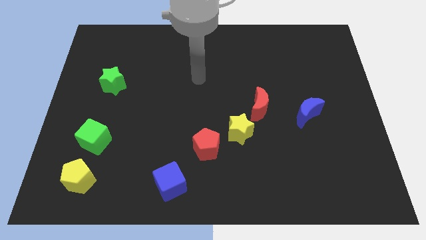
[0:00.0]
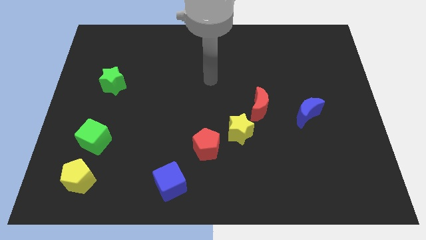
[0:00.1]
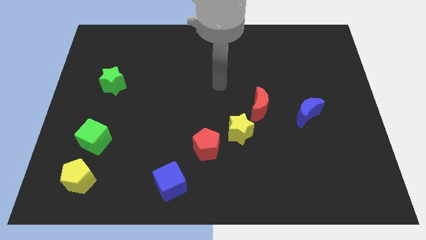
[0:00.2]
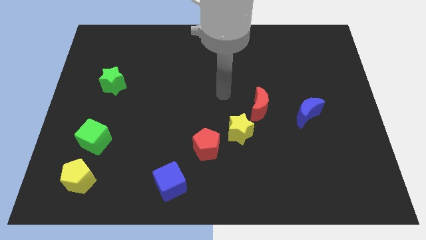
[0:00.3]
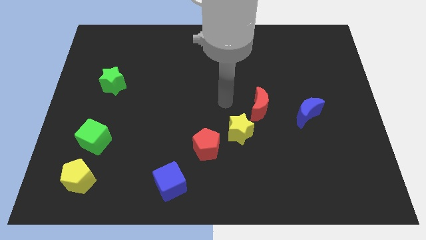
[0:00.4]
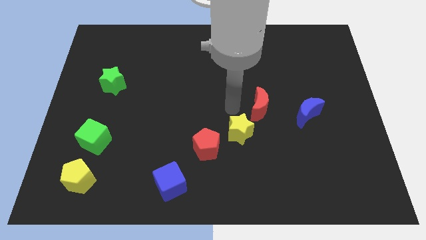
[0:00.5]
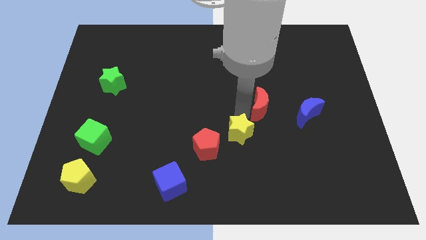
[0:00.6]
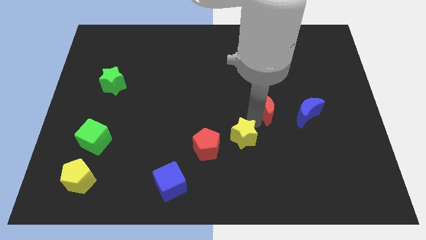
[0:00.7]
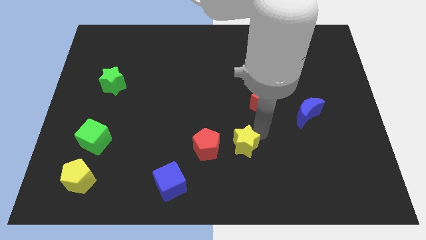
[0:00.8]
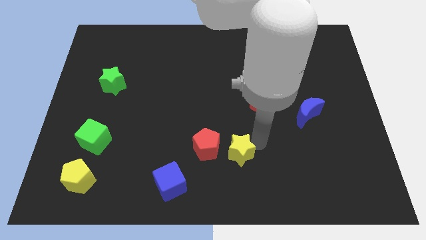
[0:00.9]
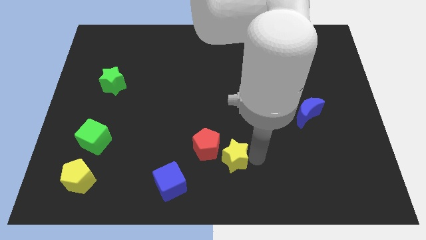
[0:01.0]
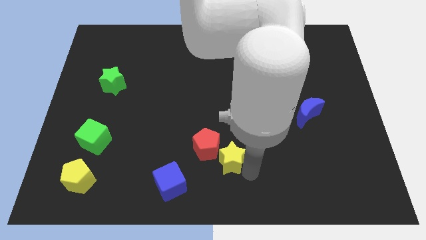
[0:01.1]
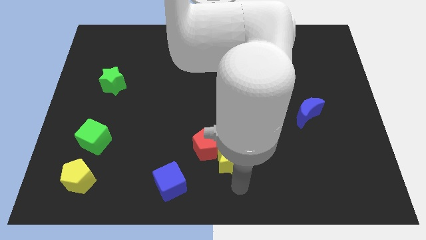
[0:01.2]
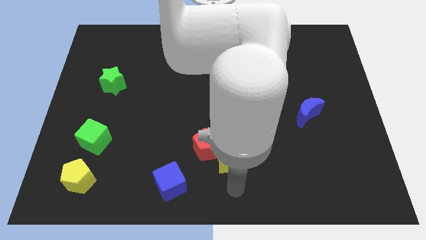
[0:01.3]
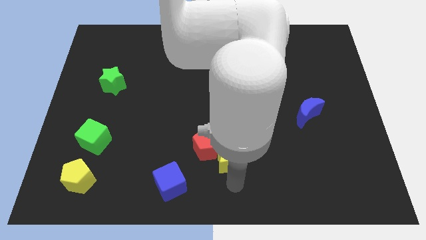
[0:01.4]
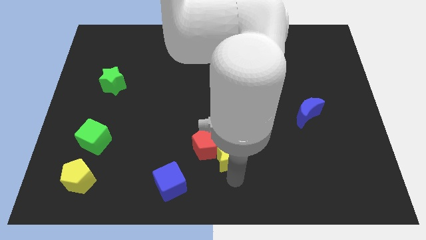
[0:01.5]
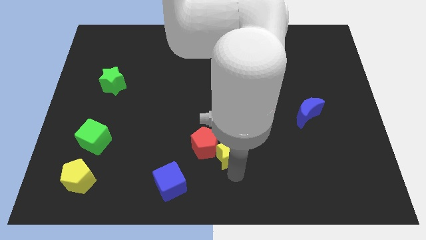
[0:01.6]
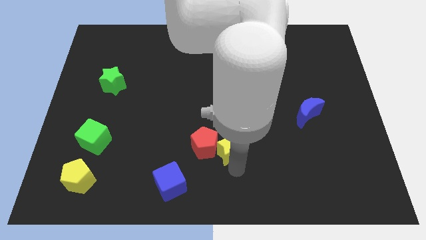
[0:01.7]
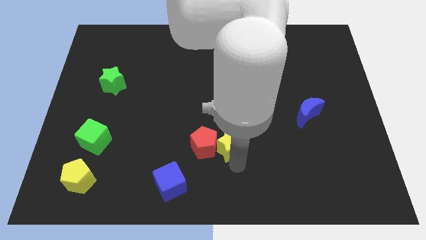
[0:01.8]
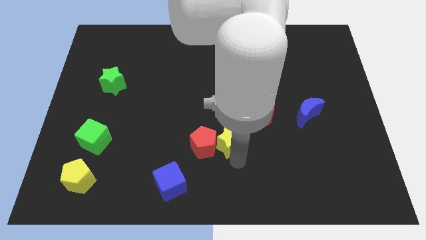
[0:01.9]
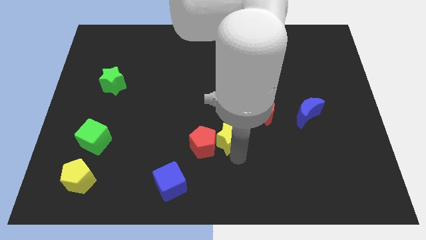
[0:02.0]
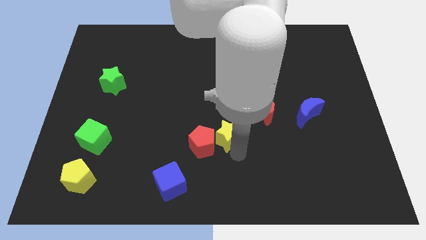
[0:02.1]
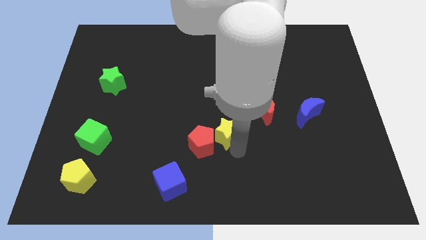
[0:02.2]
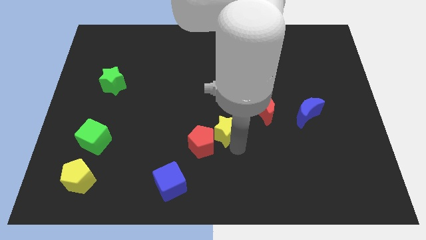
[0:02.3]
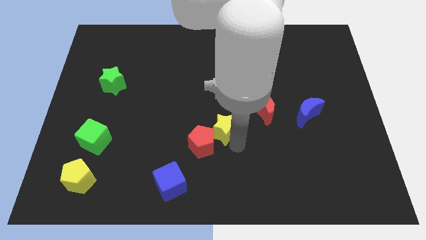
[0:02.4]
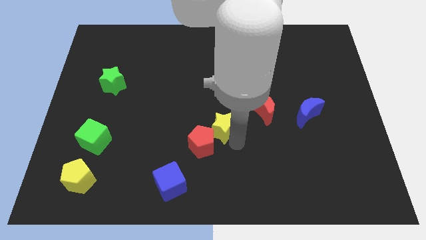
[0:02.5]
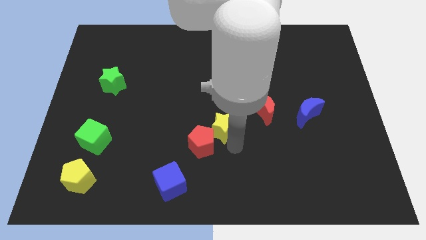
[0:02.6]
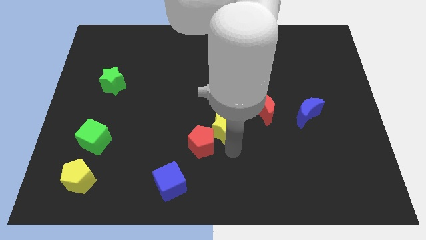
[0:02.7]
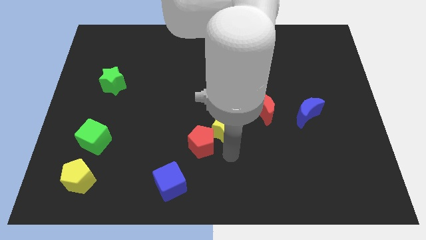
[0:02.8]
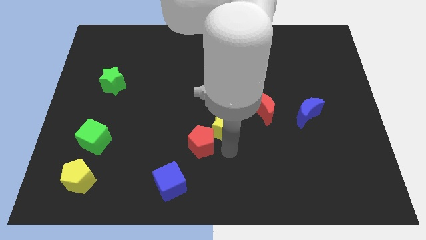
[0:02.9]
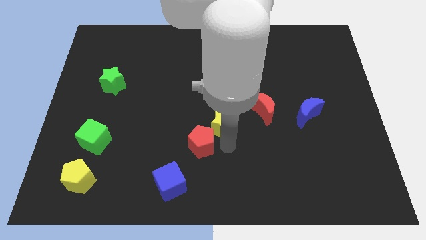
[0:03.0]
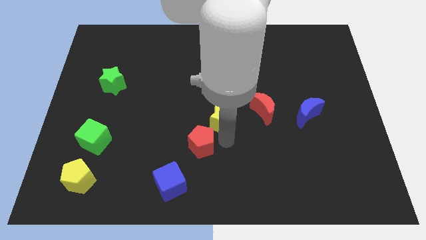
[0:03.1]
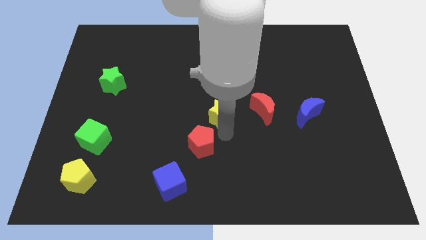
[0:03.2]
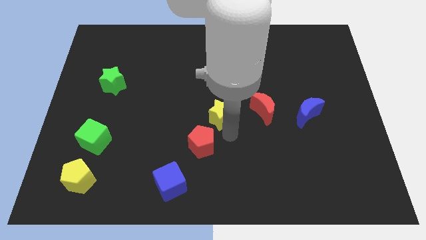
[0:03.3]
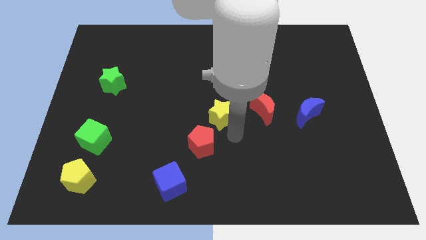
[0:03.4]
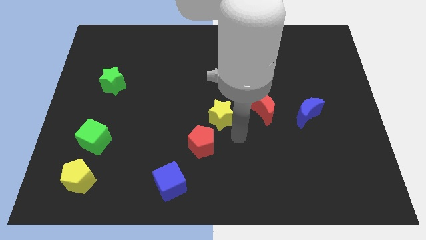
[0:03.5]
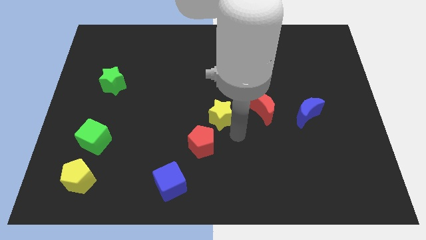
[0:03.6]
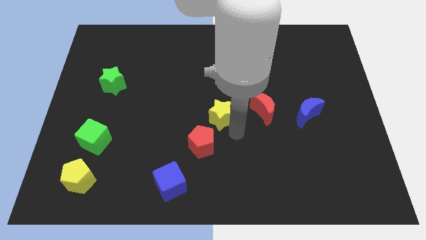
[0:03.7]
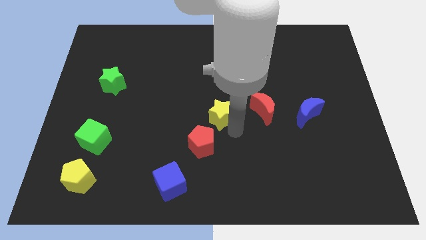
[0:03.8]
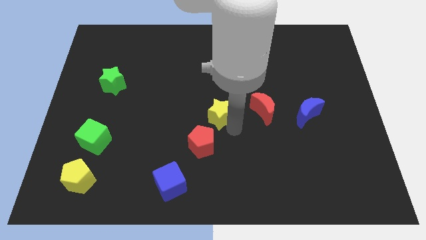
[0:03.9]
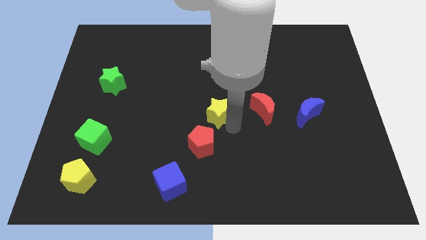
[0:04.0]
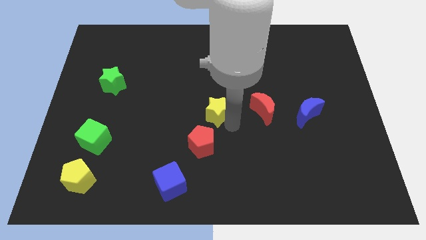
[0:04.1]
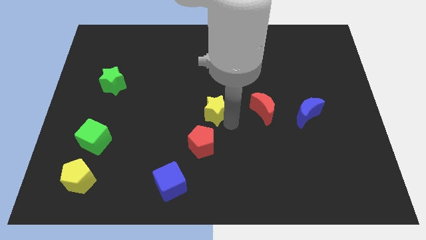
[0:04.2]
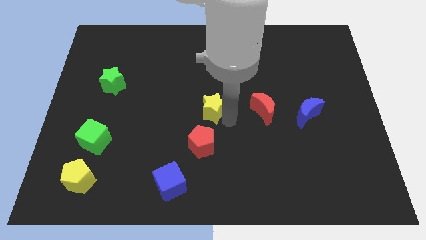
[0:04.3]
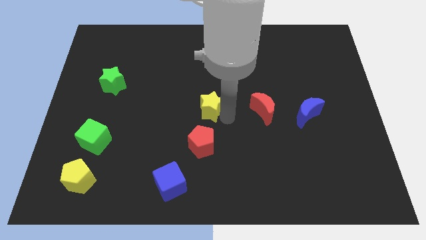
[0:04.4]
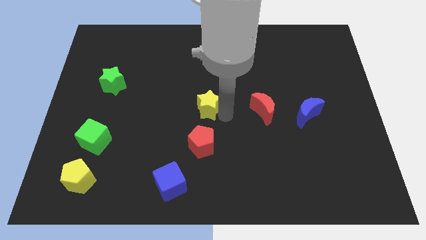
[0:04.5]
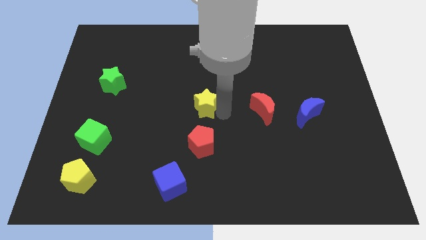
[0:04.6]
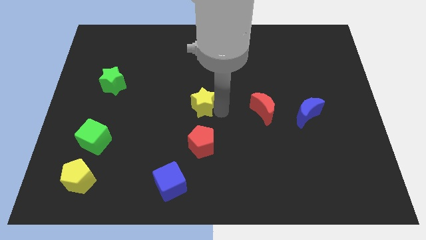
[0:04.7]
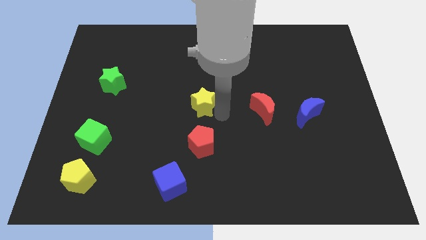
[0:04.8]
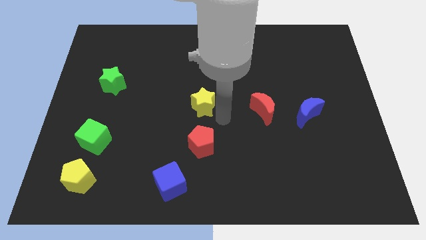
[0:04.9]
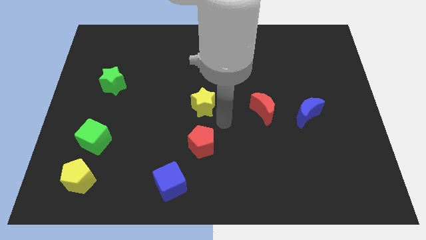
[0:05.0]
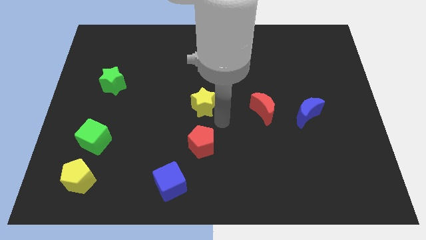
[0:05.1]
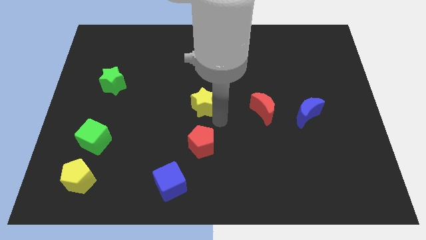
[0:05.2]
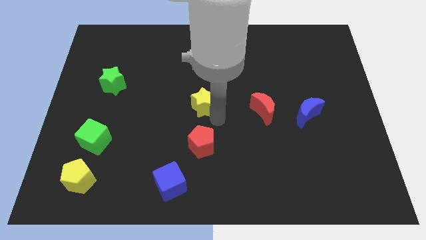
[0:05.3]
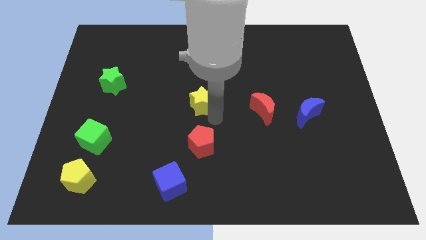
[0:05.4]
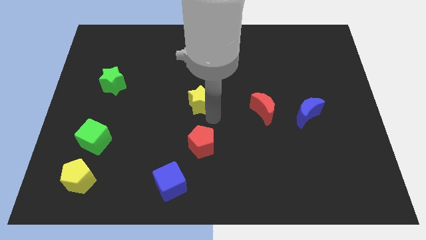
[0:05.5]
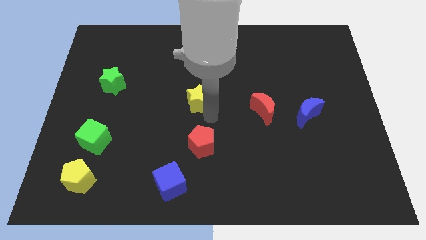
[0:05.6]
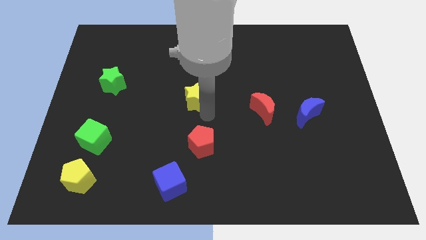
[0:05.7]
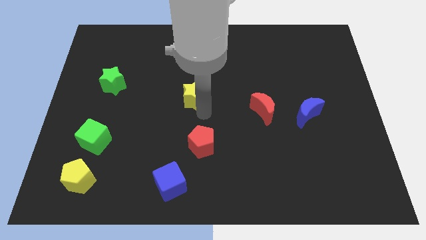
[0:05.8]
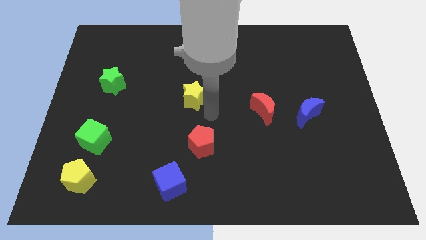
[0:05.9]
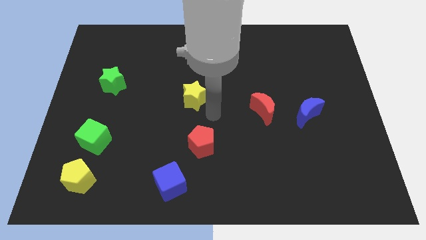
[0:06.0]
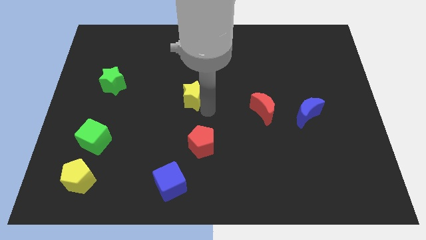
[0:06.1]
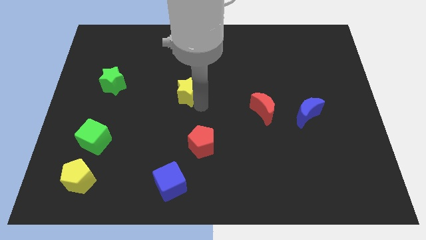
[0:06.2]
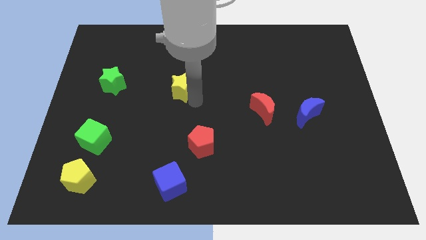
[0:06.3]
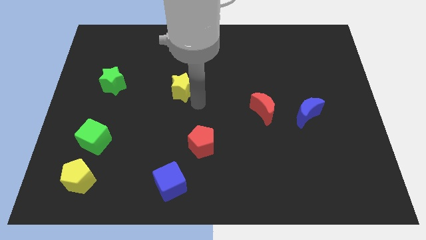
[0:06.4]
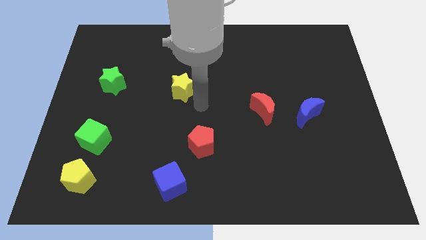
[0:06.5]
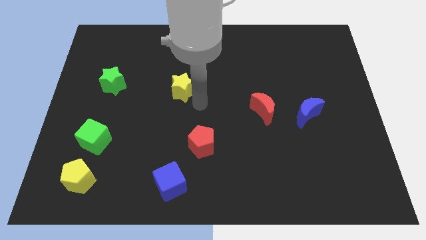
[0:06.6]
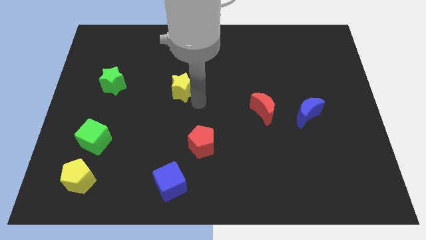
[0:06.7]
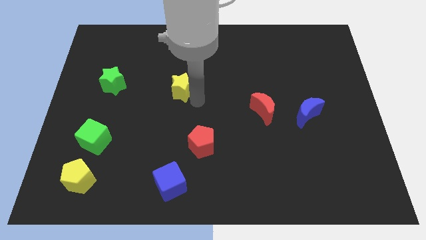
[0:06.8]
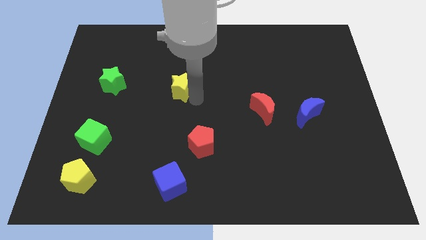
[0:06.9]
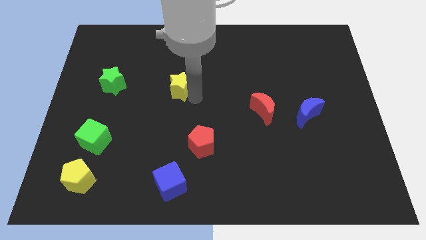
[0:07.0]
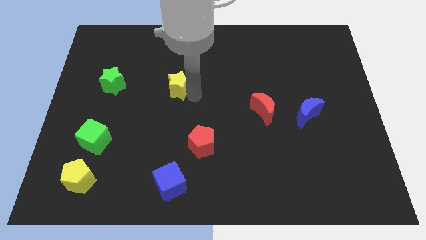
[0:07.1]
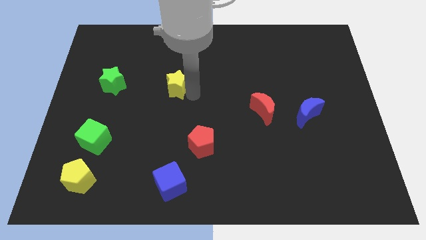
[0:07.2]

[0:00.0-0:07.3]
push the yellow star up and then to the left

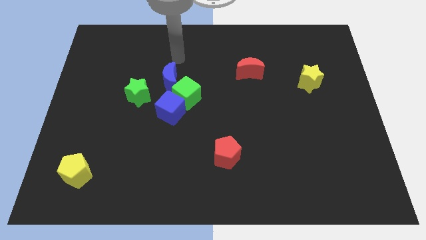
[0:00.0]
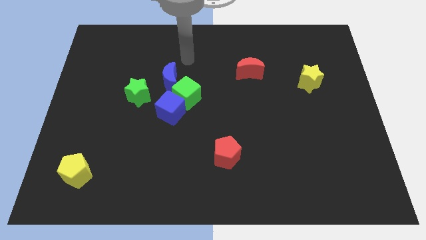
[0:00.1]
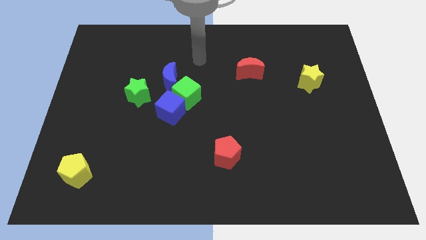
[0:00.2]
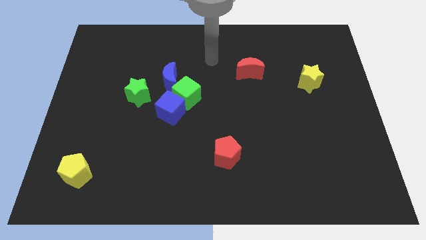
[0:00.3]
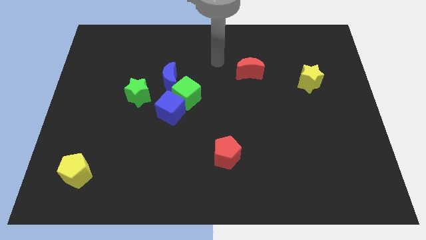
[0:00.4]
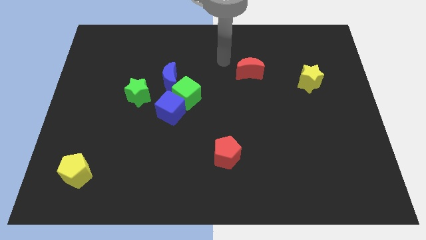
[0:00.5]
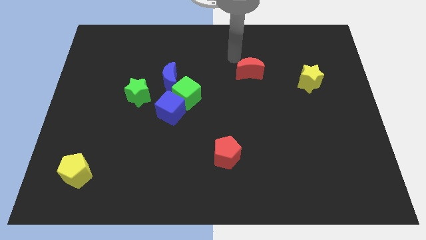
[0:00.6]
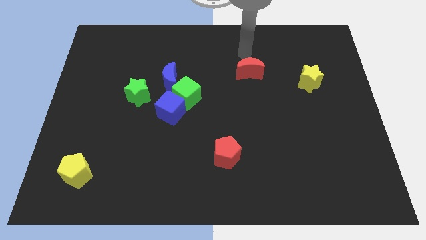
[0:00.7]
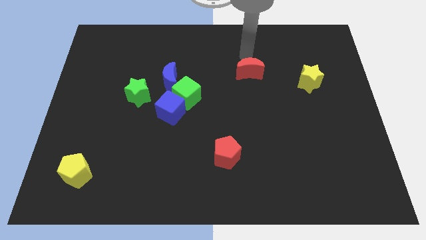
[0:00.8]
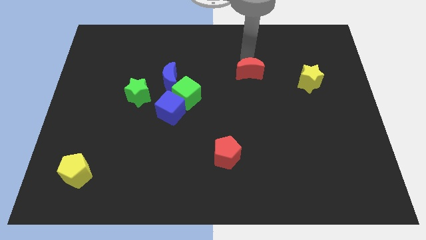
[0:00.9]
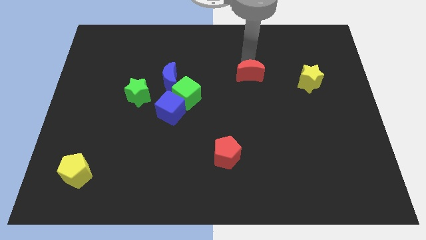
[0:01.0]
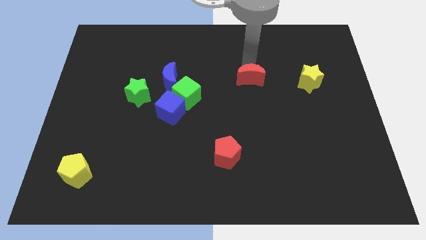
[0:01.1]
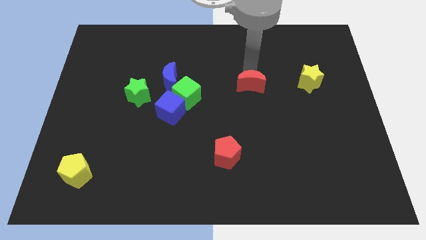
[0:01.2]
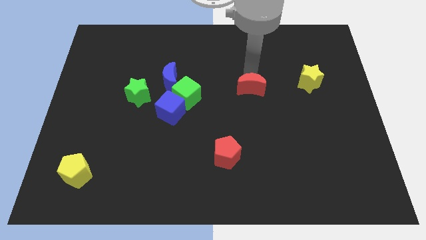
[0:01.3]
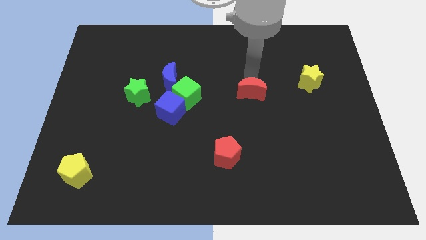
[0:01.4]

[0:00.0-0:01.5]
slightly move the red moon down
